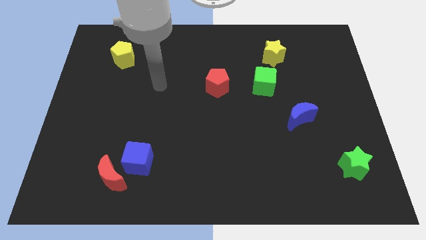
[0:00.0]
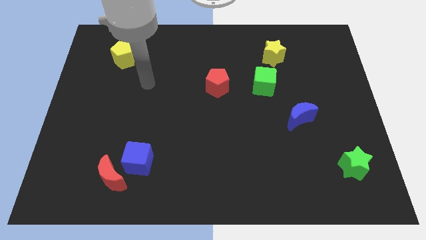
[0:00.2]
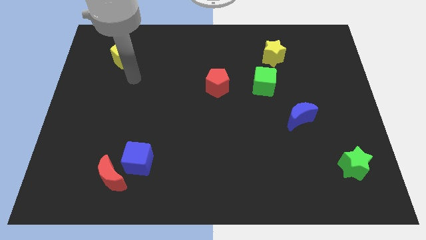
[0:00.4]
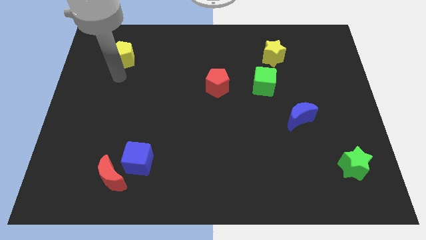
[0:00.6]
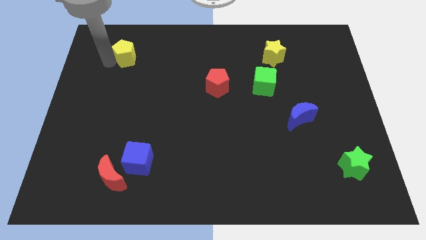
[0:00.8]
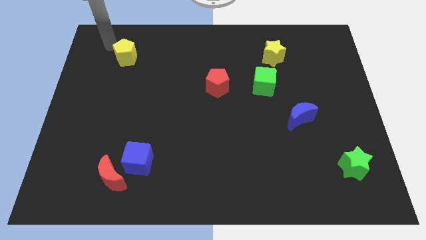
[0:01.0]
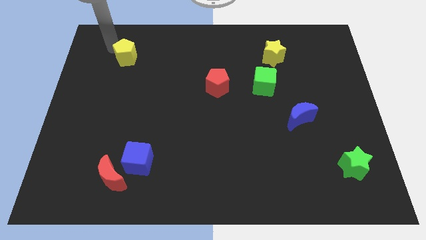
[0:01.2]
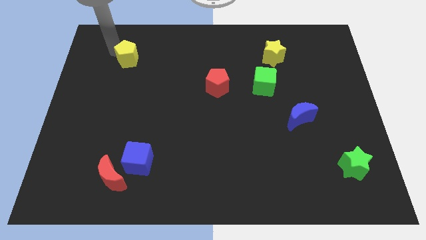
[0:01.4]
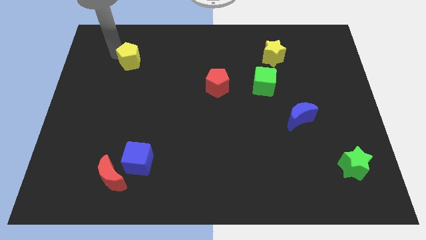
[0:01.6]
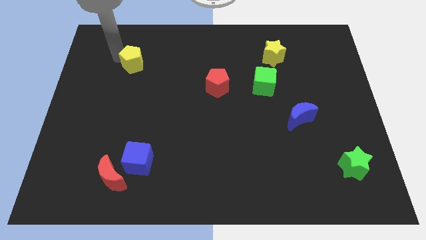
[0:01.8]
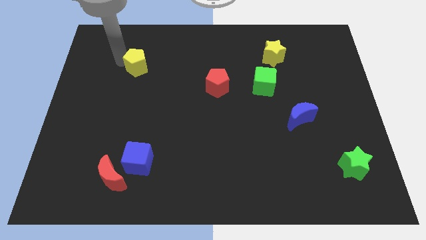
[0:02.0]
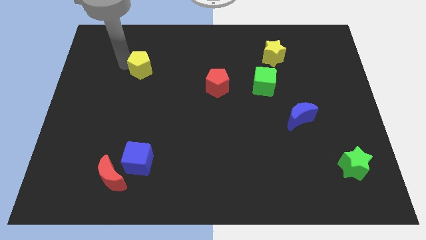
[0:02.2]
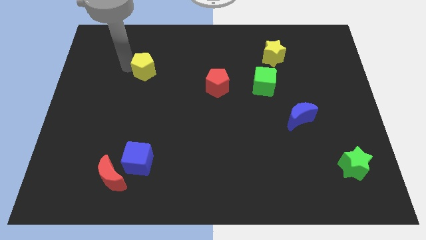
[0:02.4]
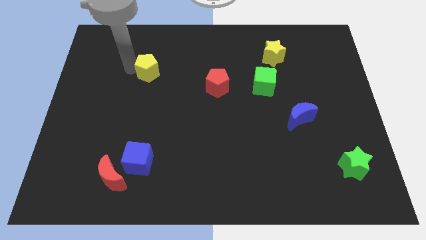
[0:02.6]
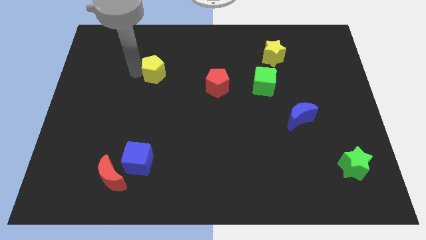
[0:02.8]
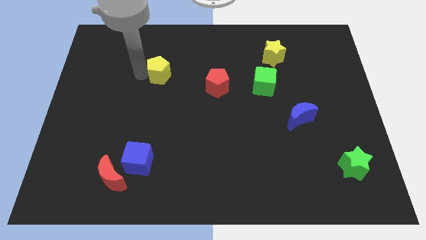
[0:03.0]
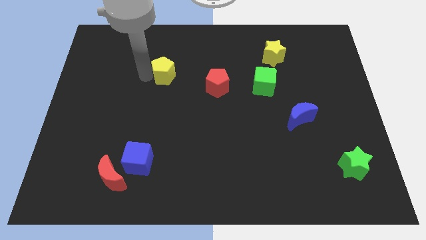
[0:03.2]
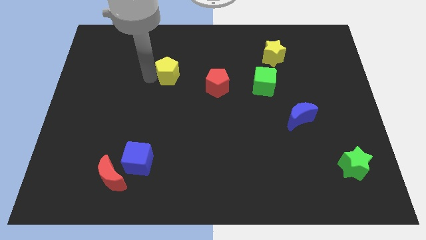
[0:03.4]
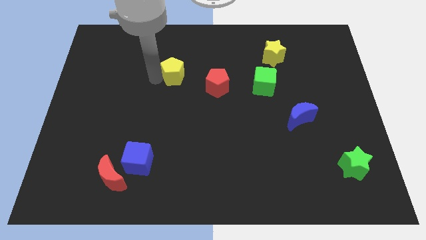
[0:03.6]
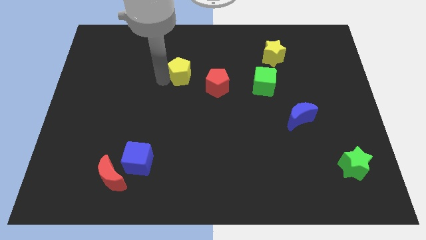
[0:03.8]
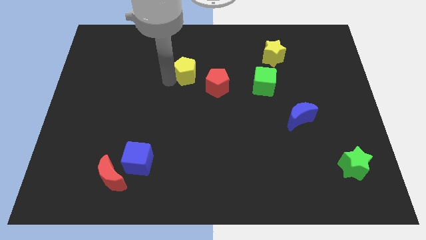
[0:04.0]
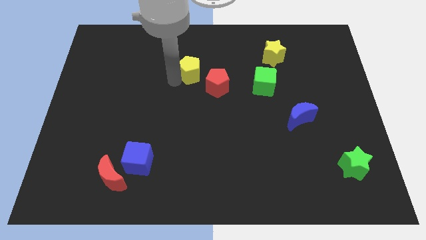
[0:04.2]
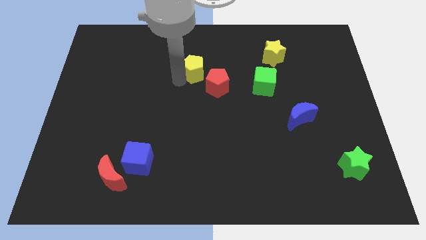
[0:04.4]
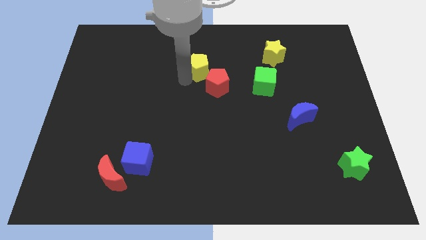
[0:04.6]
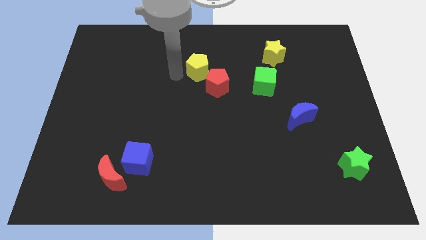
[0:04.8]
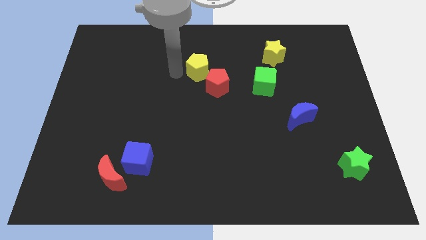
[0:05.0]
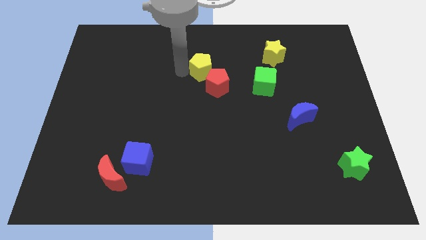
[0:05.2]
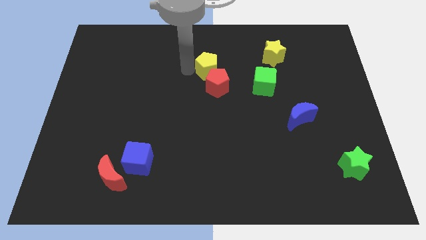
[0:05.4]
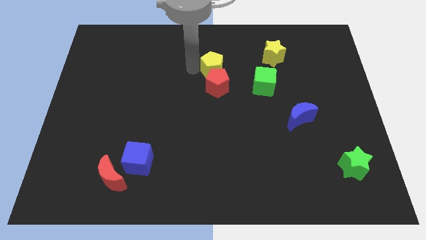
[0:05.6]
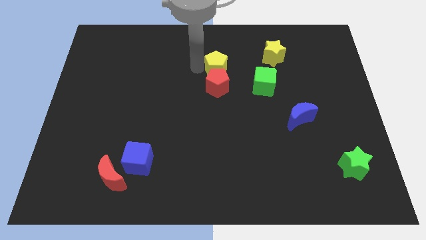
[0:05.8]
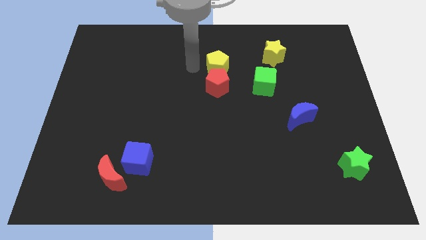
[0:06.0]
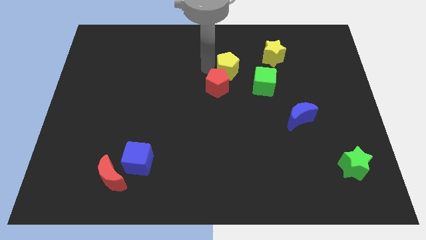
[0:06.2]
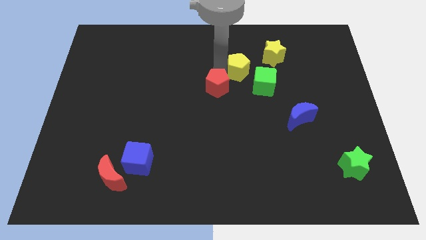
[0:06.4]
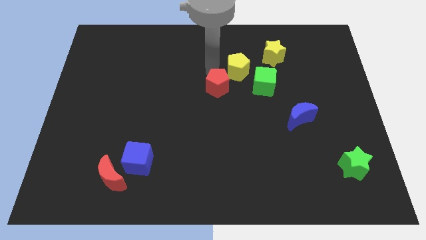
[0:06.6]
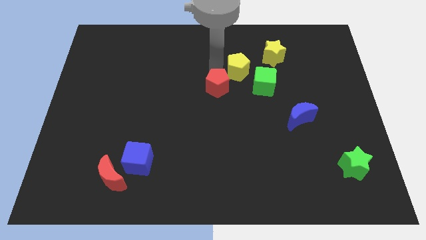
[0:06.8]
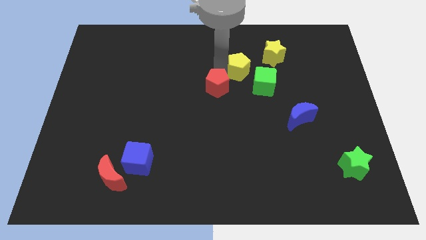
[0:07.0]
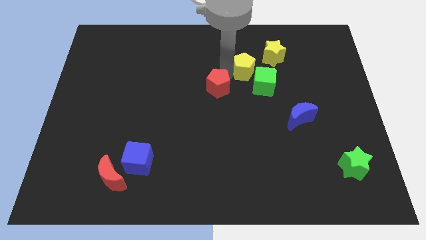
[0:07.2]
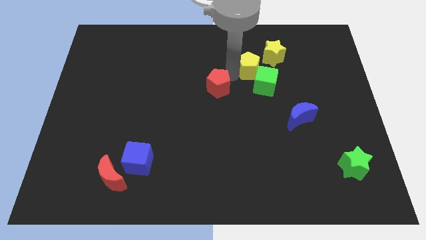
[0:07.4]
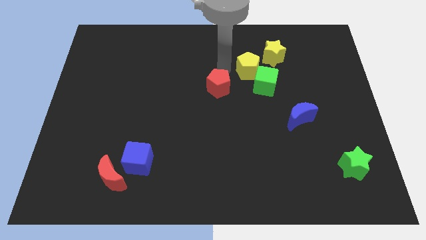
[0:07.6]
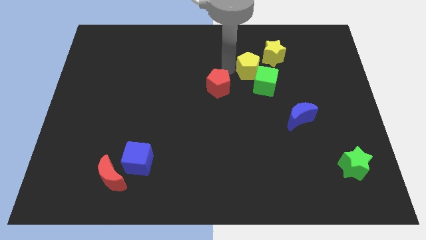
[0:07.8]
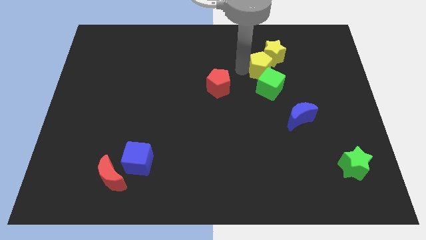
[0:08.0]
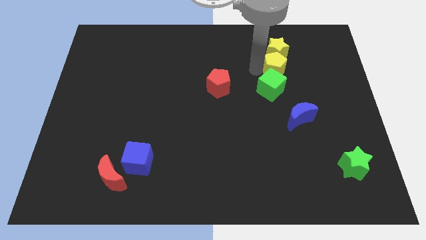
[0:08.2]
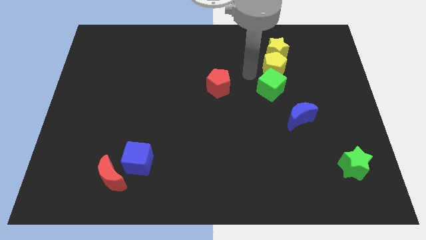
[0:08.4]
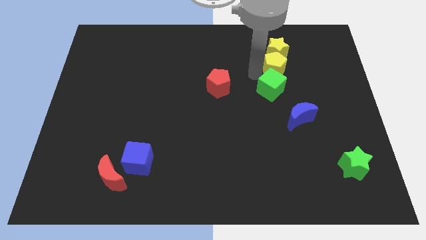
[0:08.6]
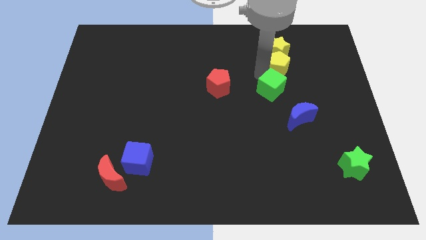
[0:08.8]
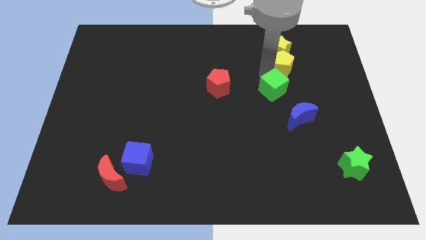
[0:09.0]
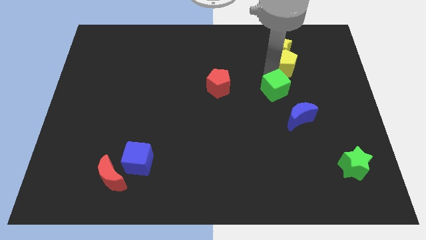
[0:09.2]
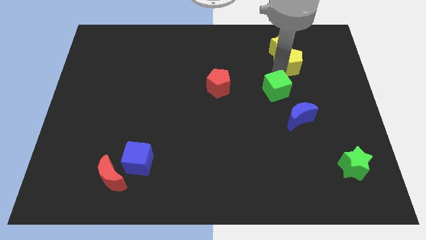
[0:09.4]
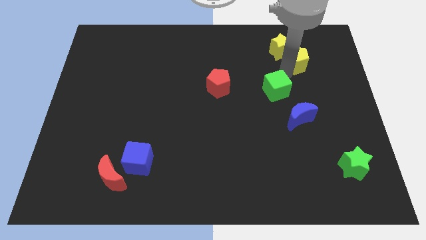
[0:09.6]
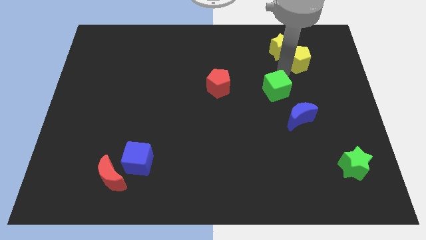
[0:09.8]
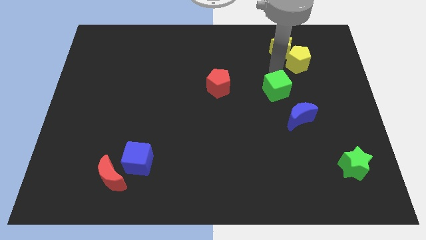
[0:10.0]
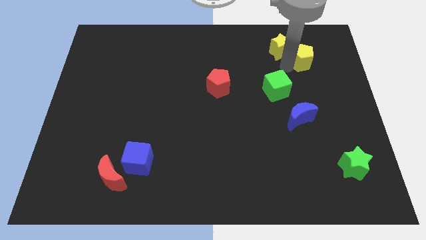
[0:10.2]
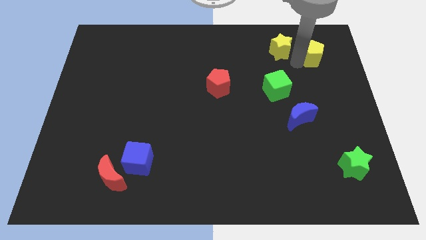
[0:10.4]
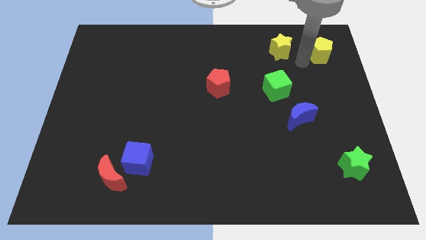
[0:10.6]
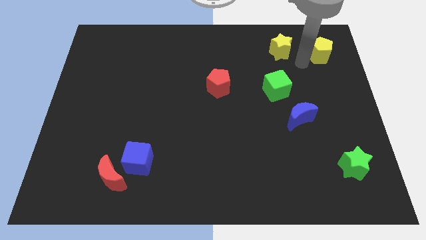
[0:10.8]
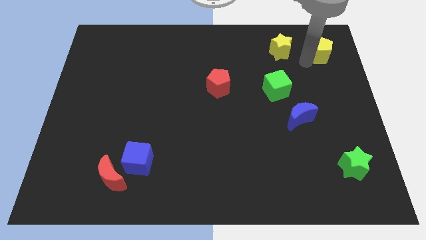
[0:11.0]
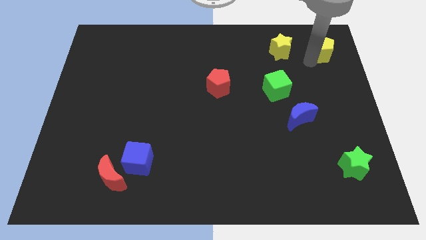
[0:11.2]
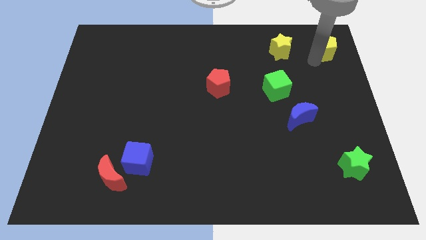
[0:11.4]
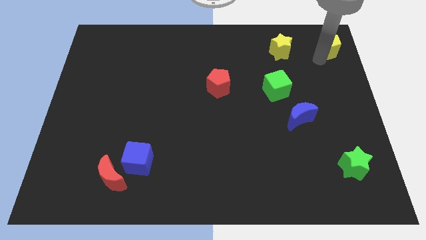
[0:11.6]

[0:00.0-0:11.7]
push the yellow pentagon to the top right of the board

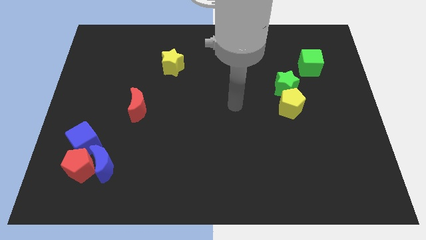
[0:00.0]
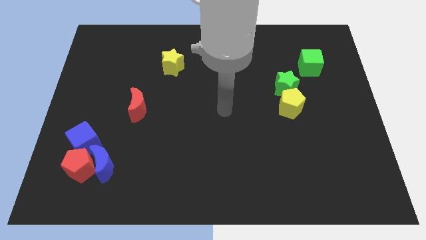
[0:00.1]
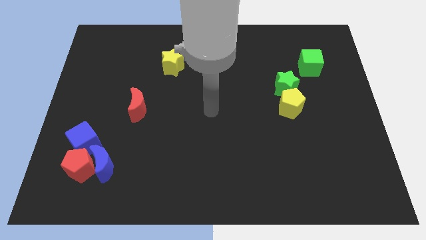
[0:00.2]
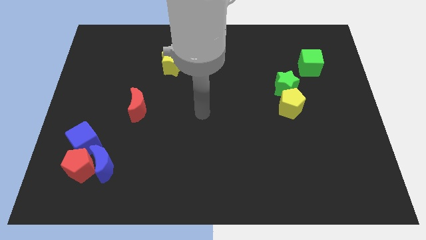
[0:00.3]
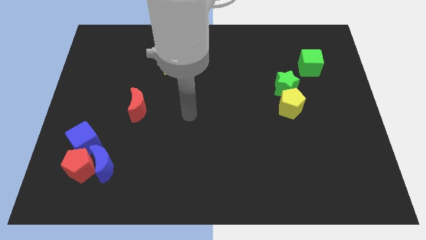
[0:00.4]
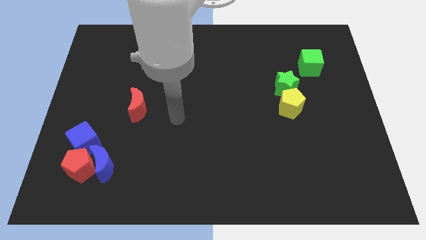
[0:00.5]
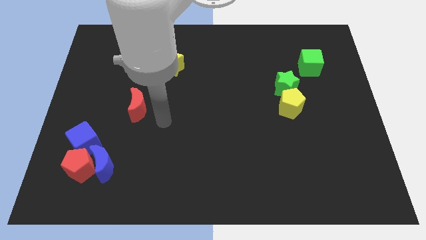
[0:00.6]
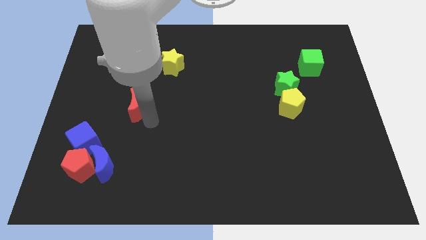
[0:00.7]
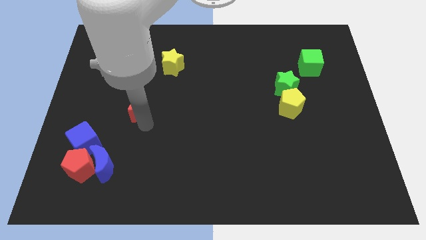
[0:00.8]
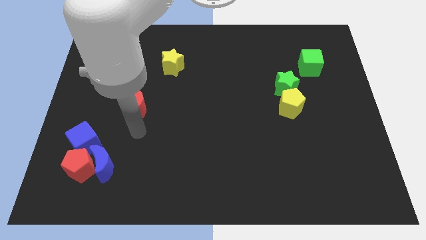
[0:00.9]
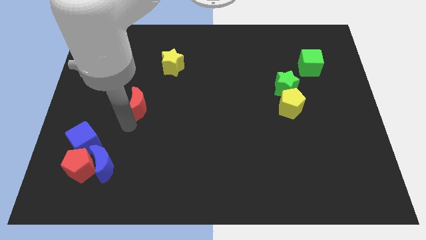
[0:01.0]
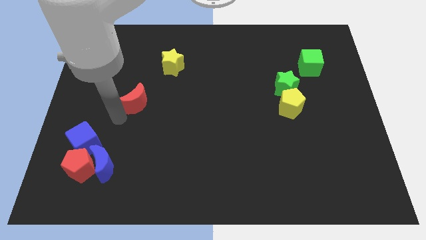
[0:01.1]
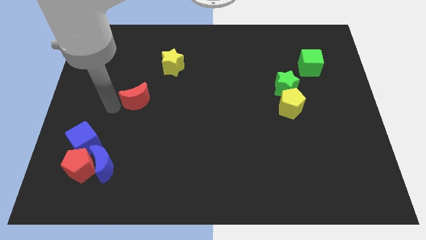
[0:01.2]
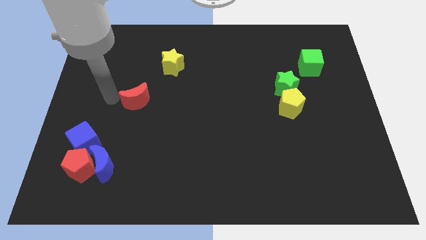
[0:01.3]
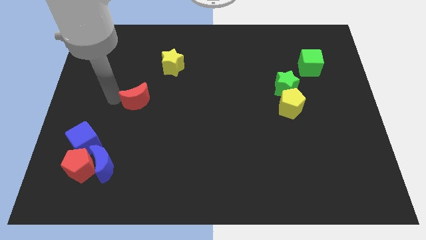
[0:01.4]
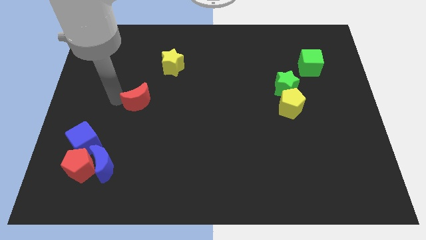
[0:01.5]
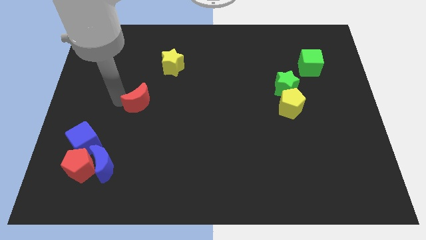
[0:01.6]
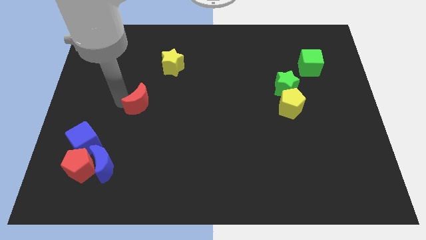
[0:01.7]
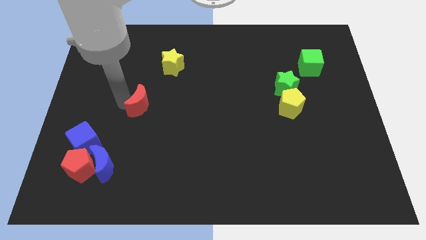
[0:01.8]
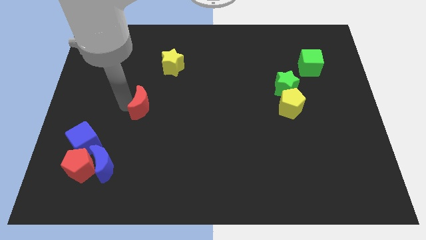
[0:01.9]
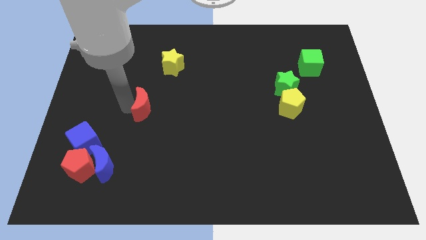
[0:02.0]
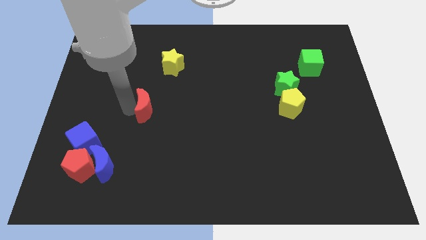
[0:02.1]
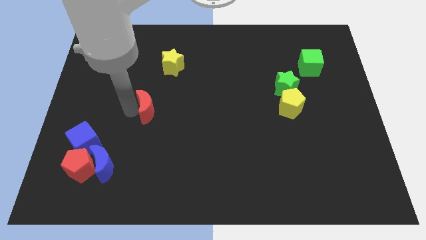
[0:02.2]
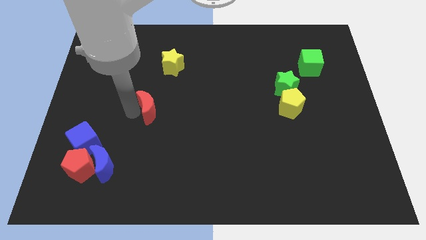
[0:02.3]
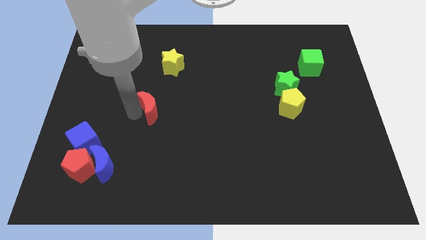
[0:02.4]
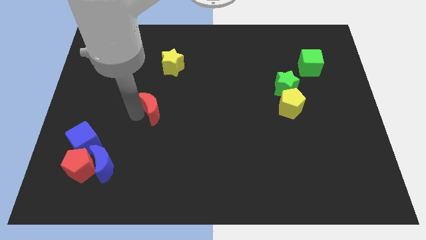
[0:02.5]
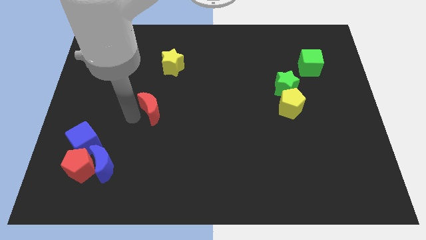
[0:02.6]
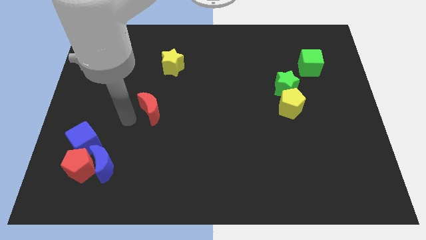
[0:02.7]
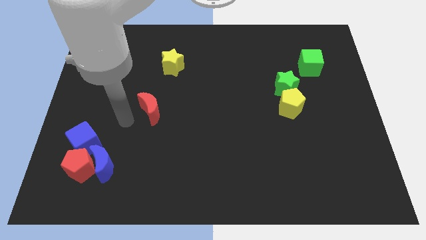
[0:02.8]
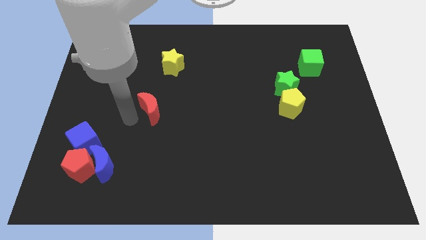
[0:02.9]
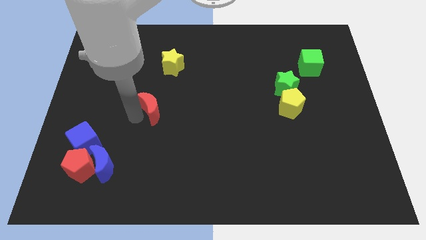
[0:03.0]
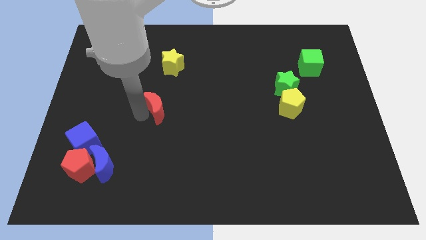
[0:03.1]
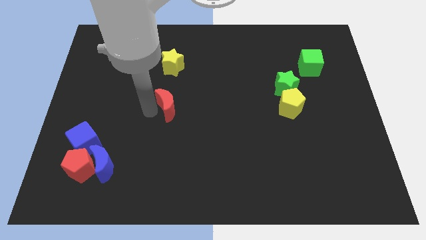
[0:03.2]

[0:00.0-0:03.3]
move the red moon to the middle of the board
